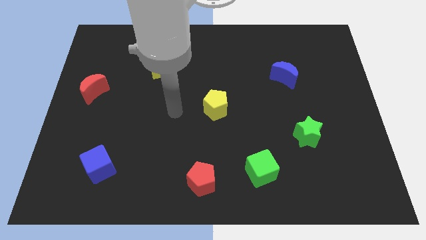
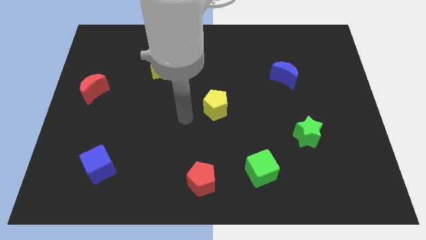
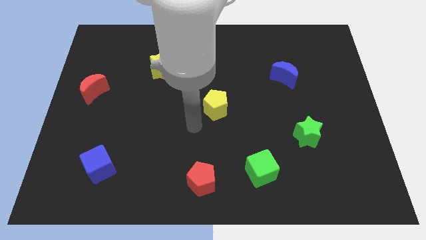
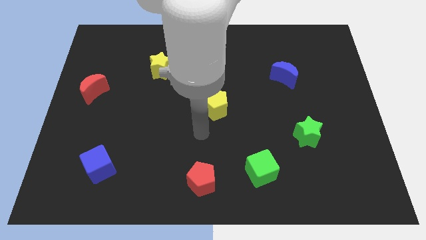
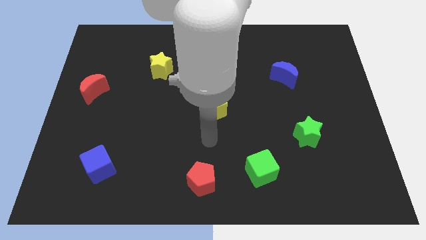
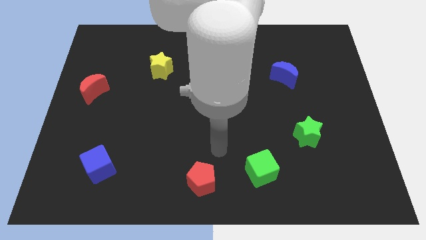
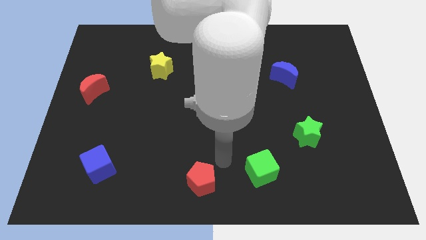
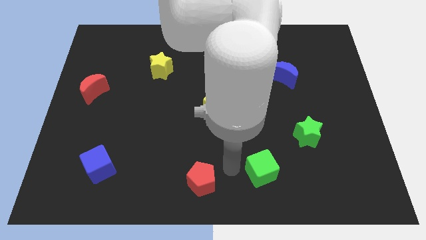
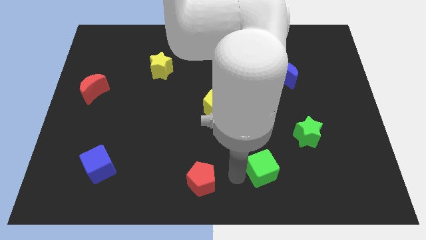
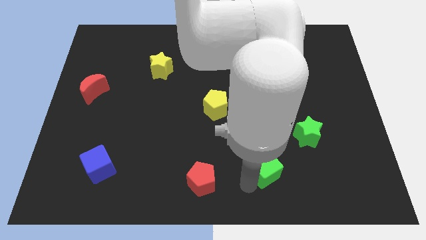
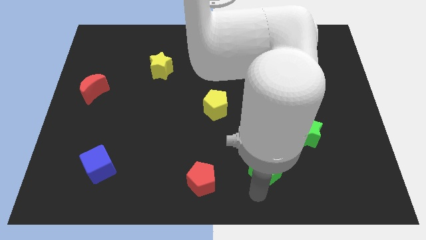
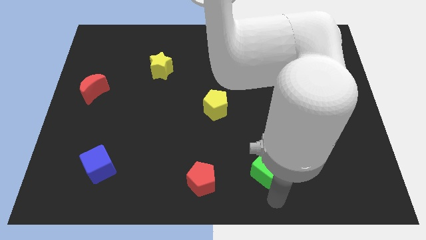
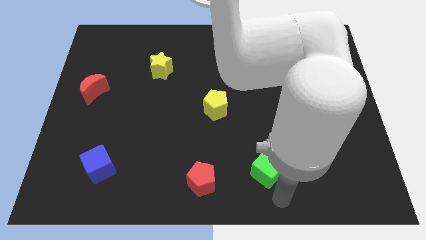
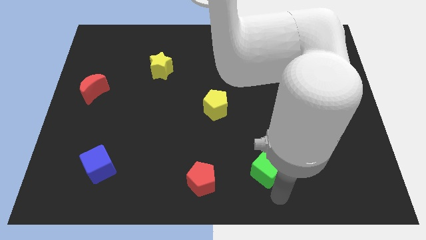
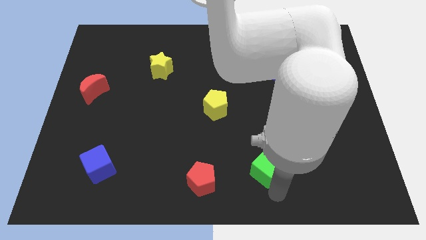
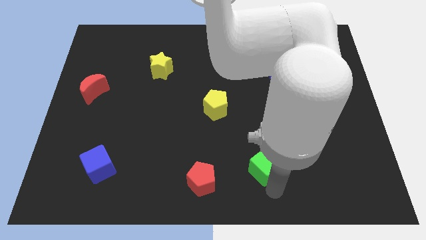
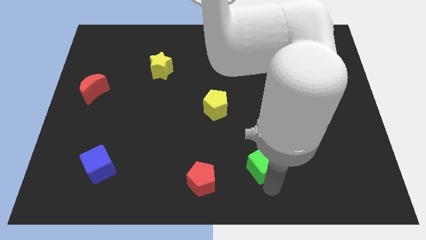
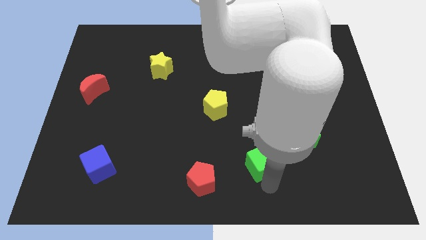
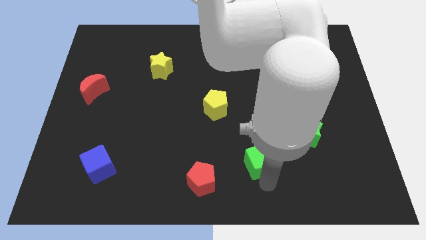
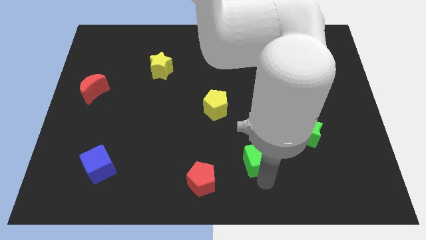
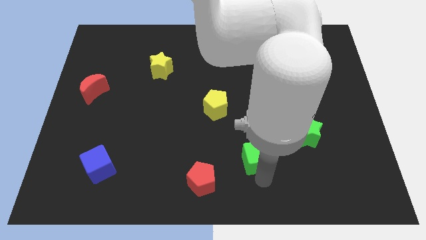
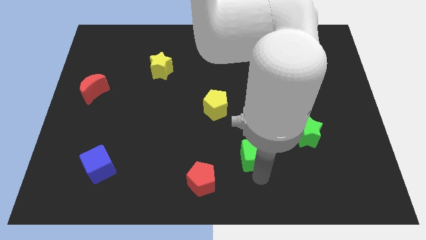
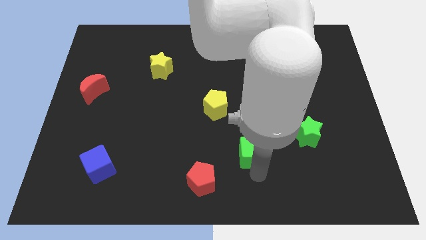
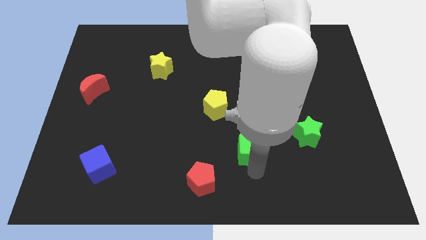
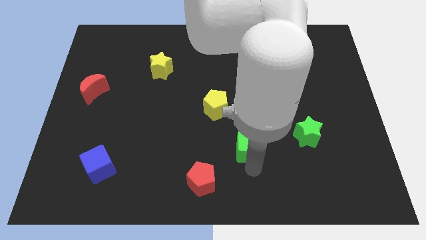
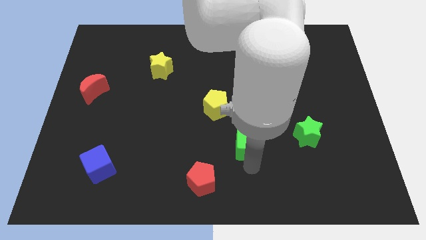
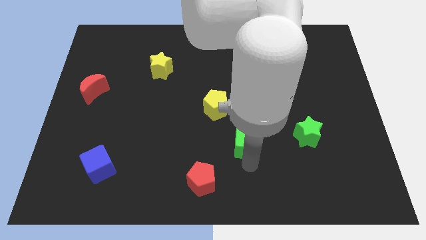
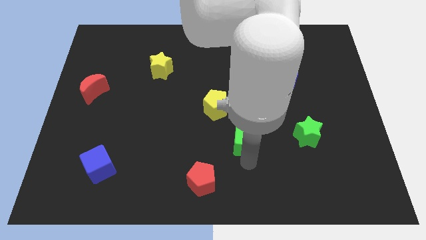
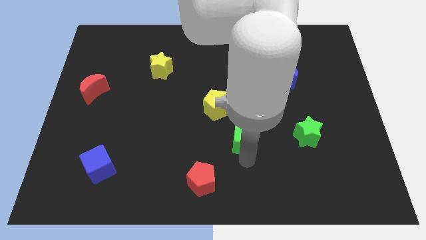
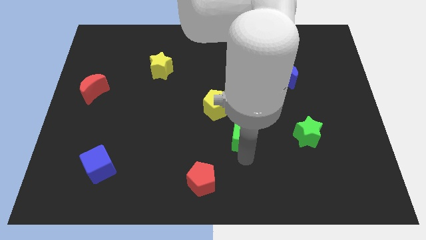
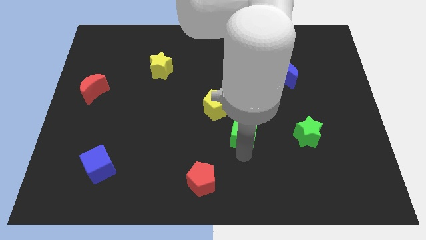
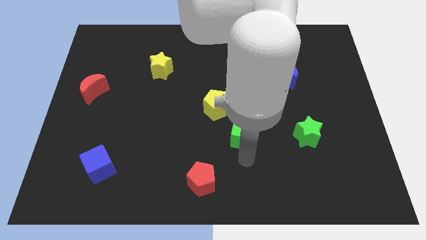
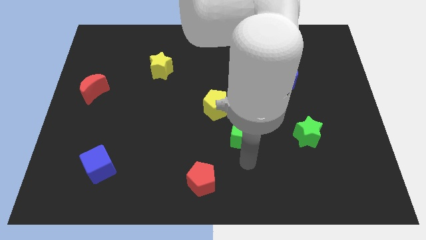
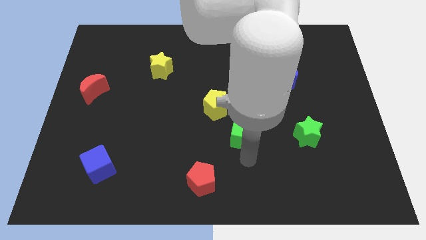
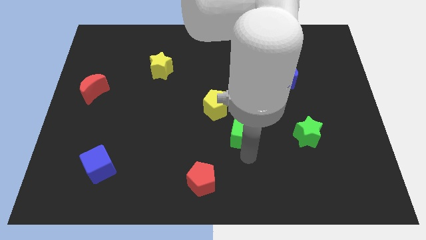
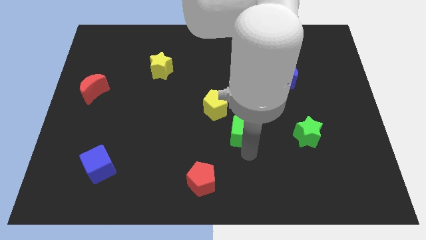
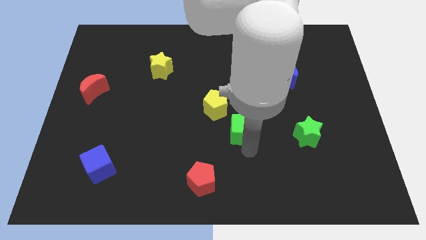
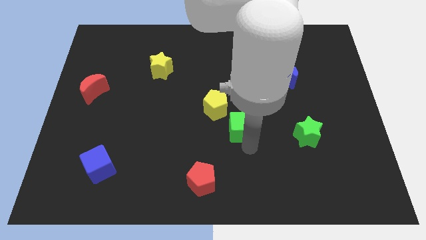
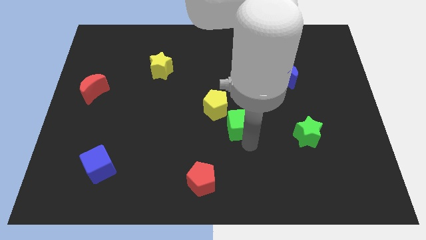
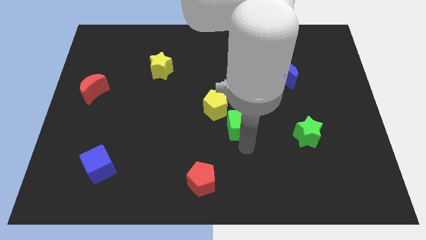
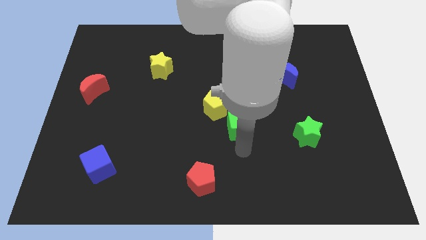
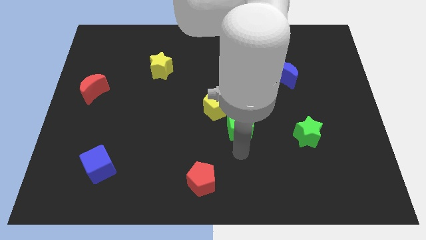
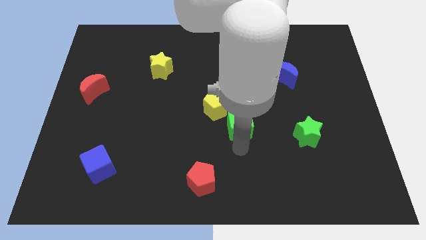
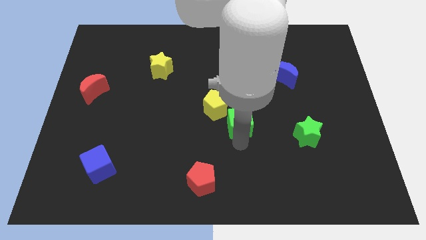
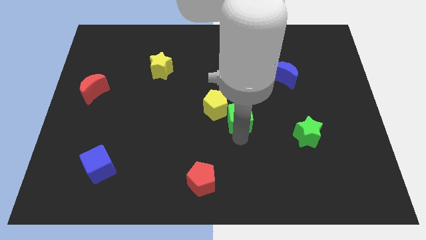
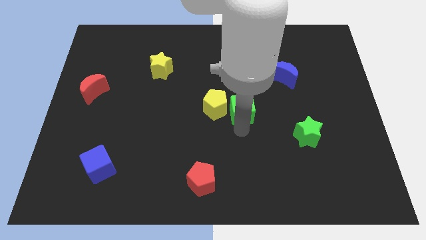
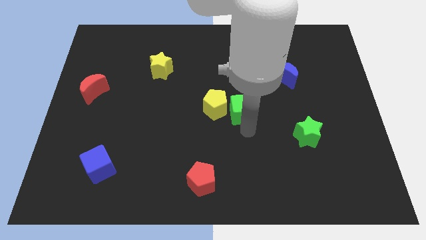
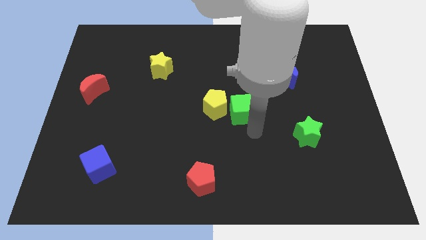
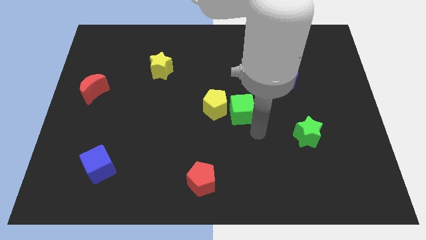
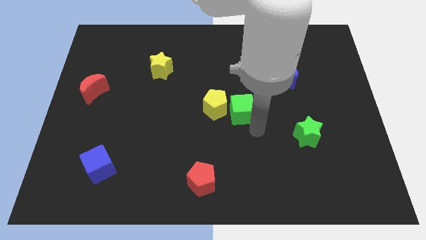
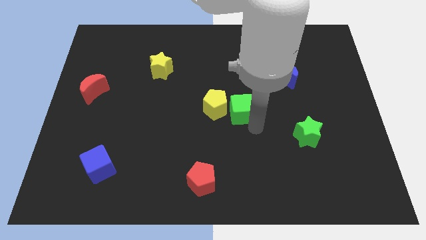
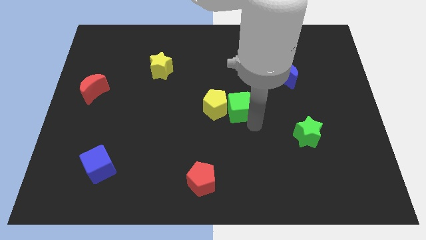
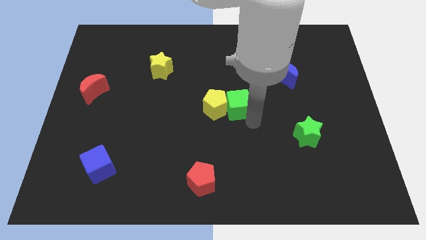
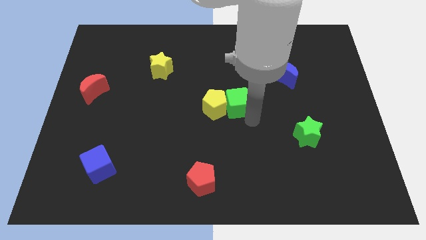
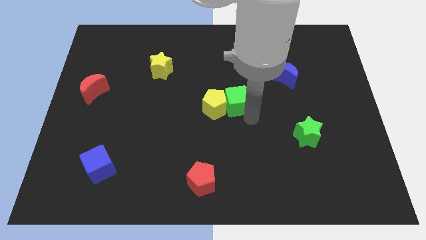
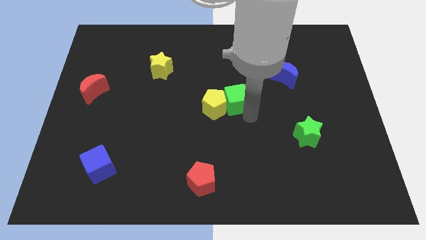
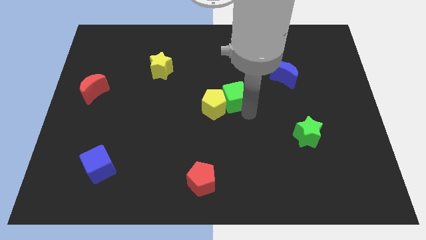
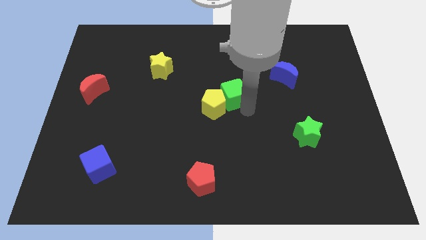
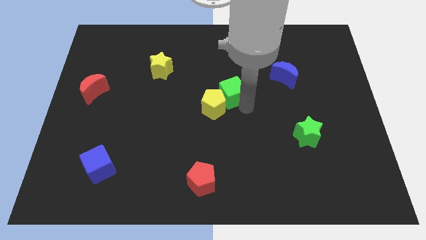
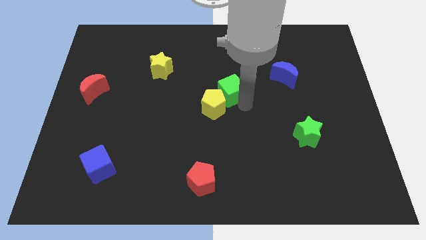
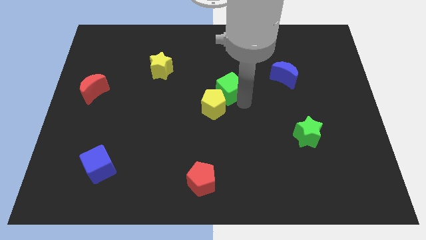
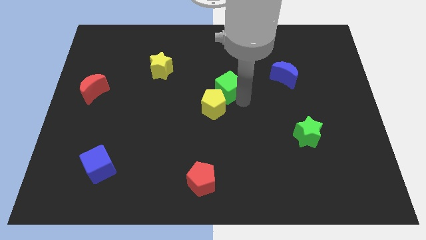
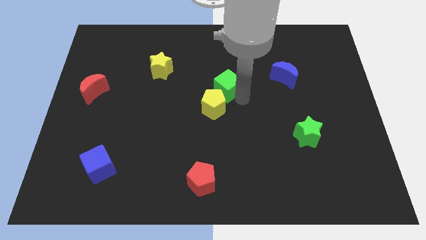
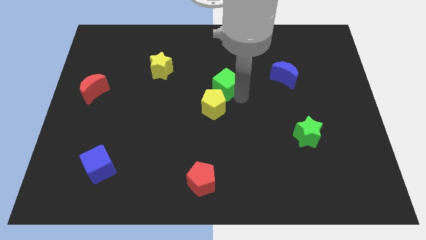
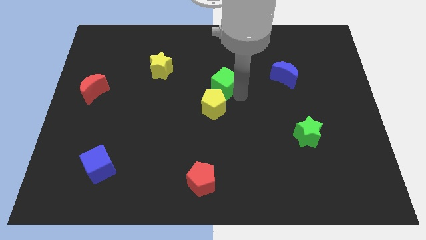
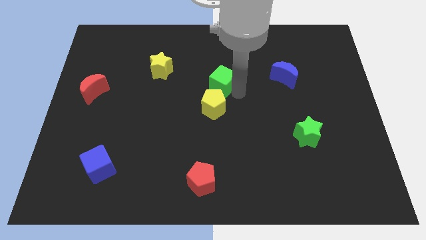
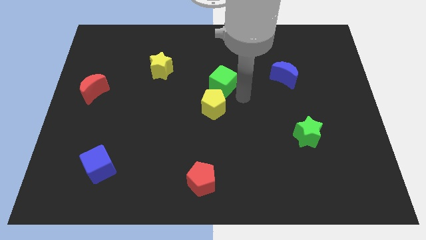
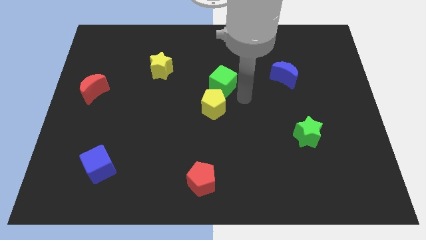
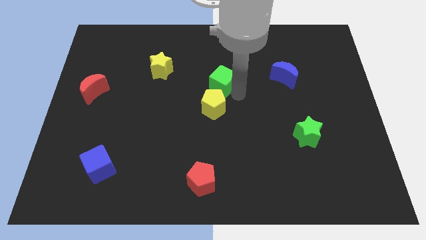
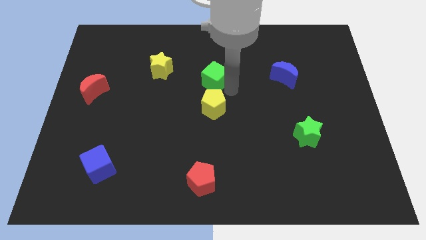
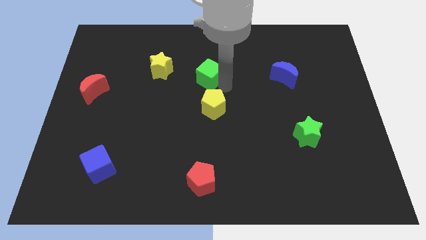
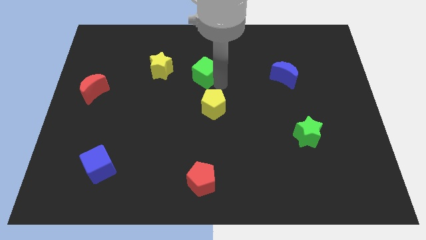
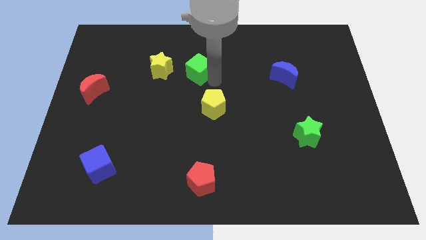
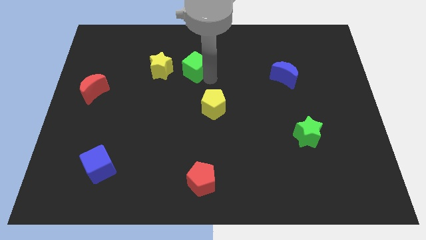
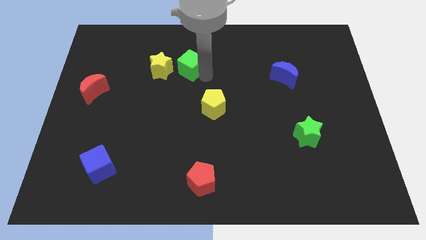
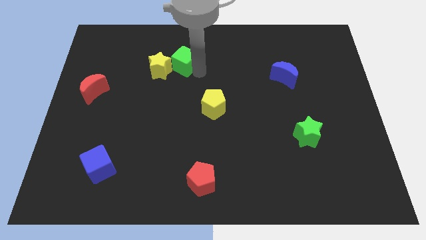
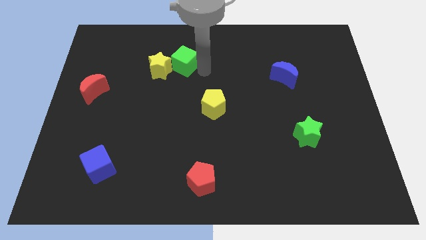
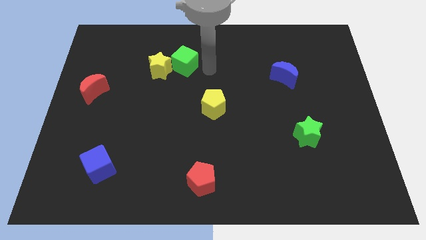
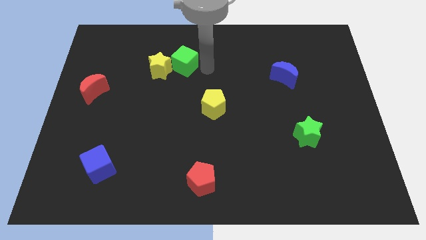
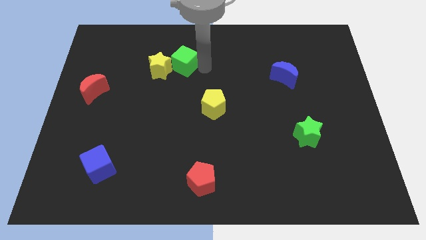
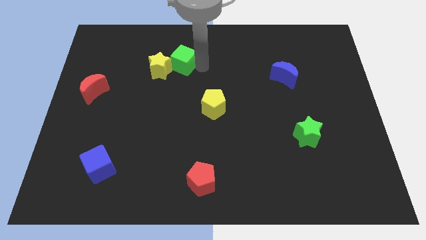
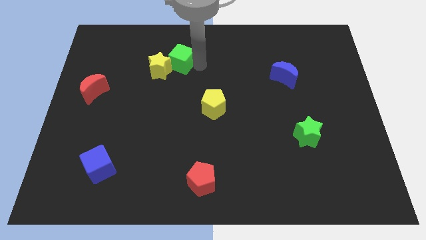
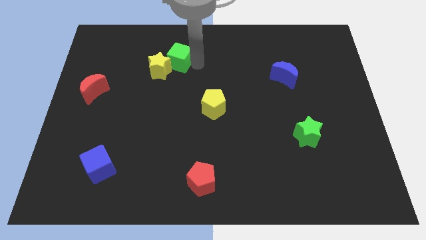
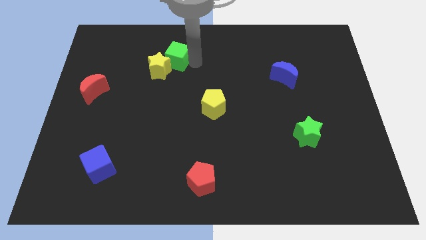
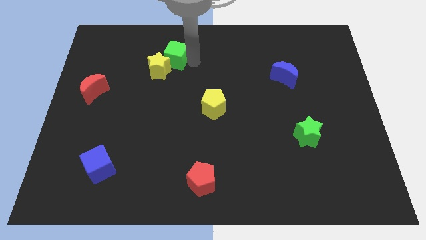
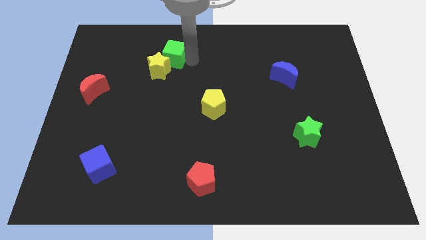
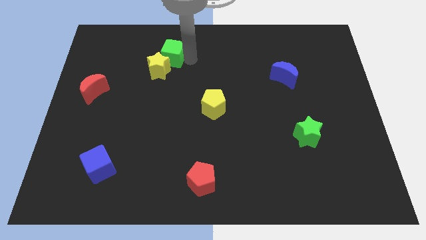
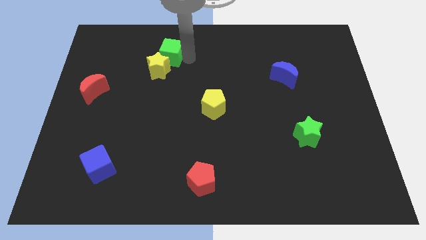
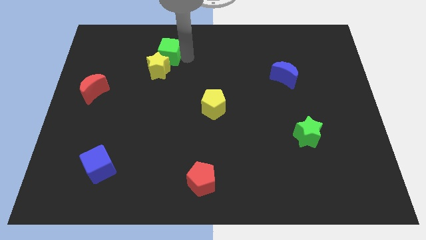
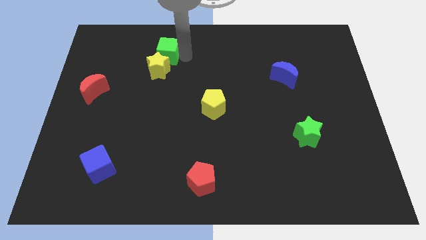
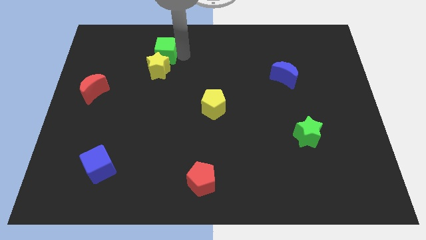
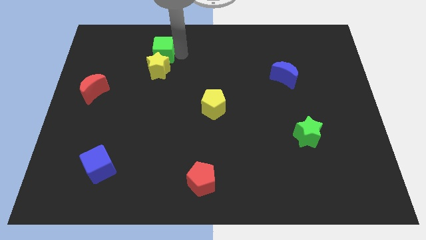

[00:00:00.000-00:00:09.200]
slide the green cube diagonally up and to the left of the yellow star
